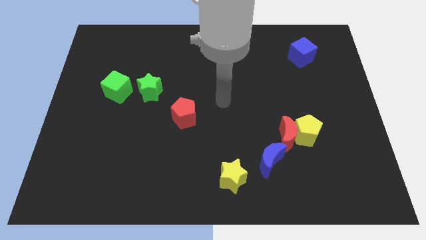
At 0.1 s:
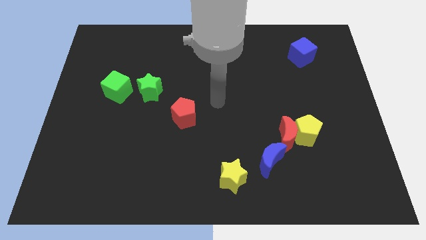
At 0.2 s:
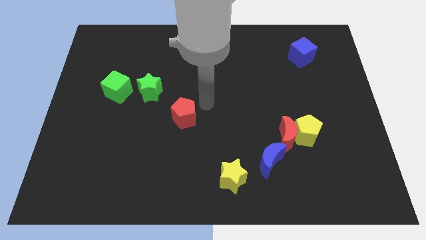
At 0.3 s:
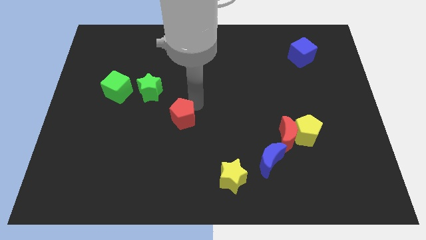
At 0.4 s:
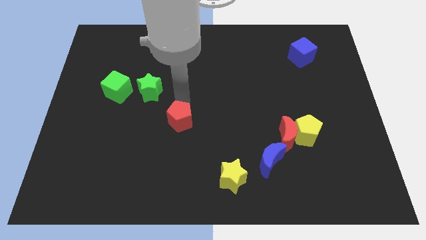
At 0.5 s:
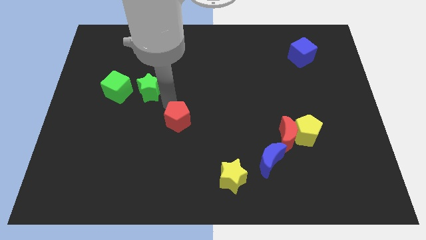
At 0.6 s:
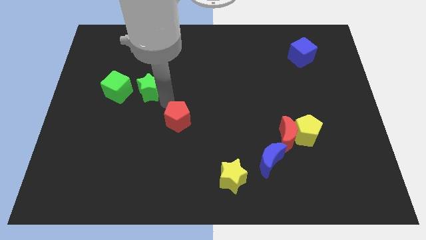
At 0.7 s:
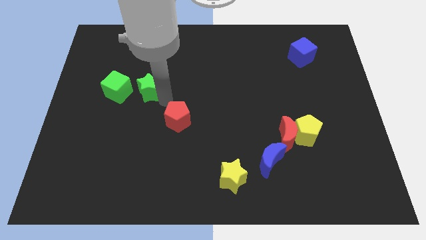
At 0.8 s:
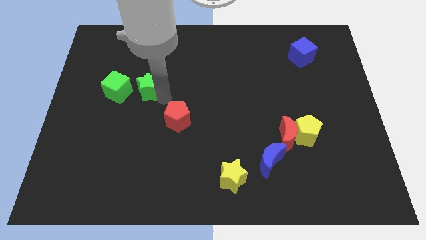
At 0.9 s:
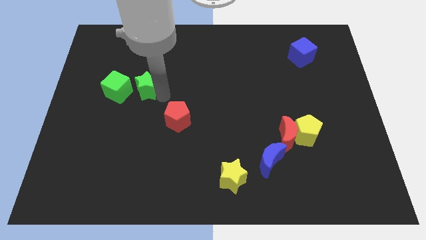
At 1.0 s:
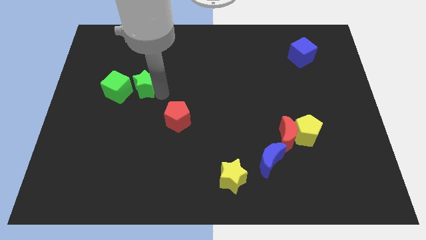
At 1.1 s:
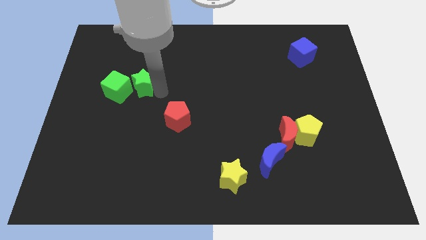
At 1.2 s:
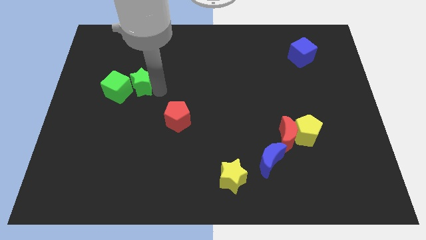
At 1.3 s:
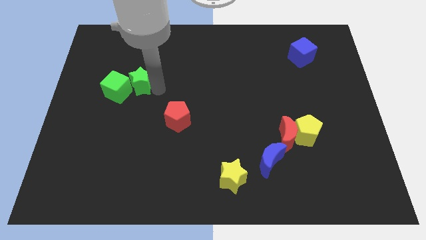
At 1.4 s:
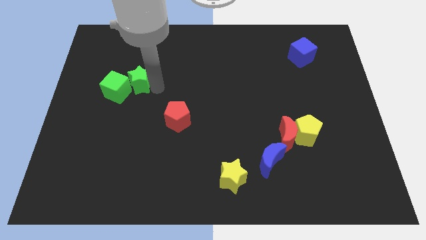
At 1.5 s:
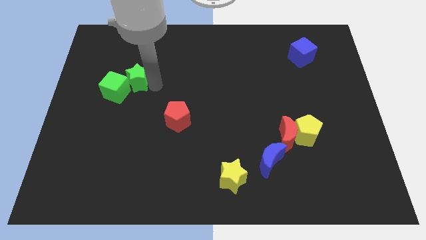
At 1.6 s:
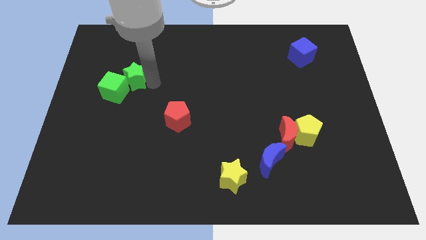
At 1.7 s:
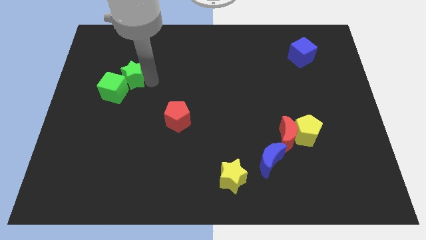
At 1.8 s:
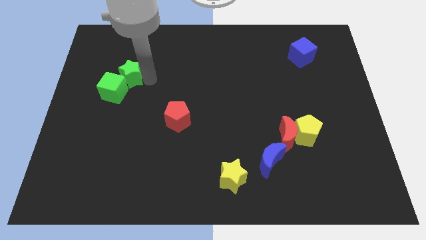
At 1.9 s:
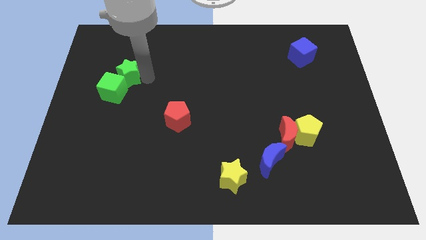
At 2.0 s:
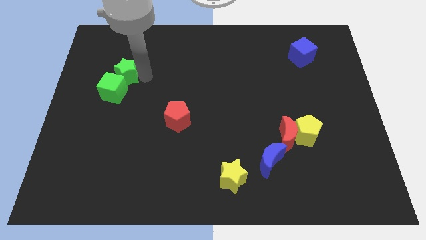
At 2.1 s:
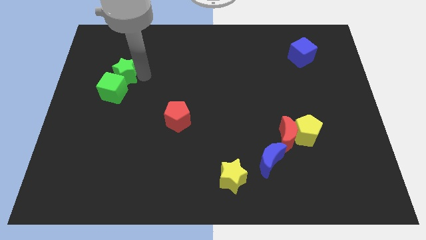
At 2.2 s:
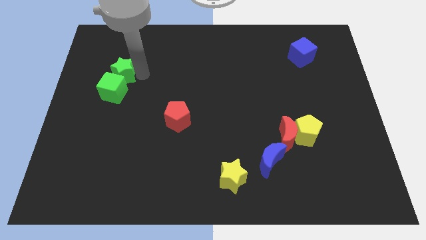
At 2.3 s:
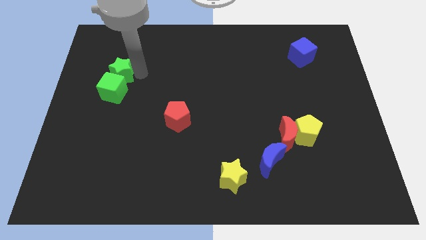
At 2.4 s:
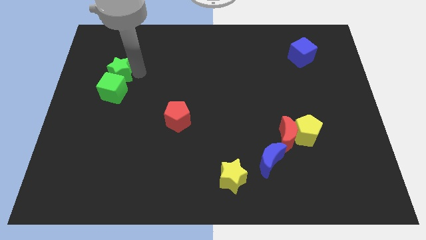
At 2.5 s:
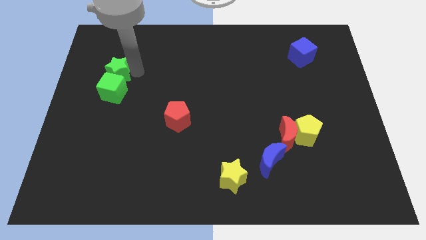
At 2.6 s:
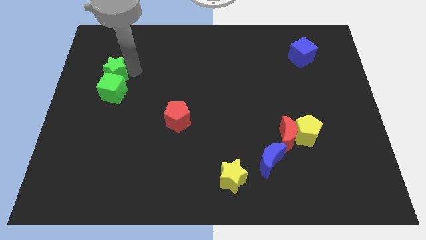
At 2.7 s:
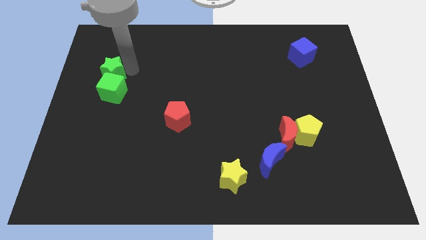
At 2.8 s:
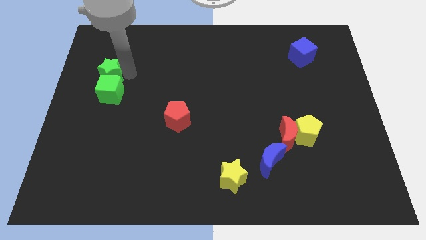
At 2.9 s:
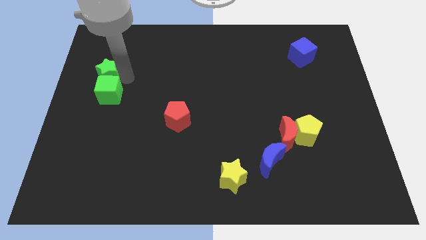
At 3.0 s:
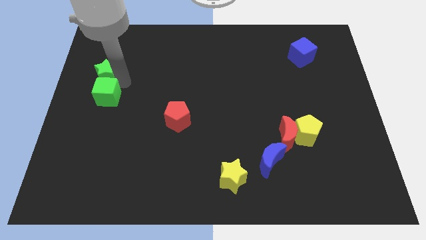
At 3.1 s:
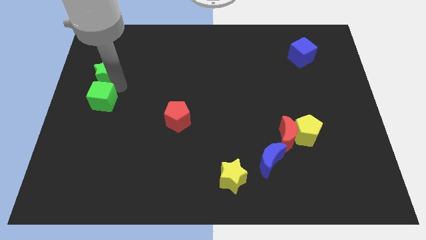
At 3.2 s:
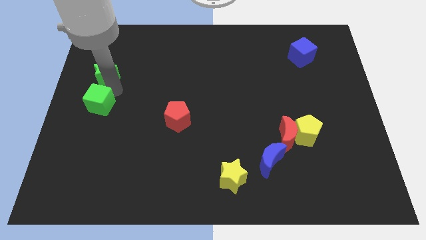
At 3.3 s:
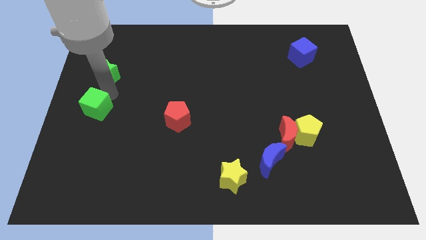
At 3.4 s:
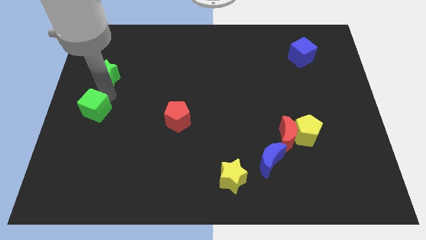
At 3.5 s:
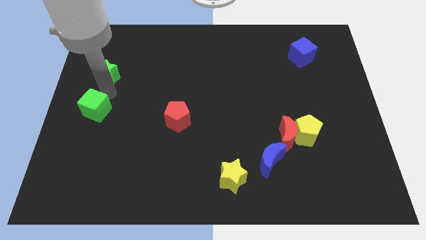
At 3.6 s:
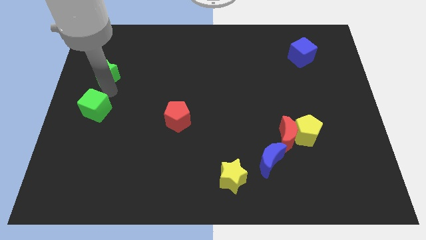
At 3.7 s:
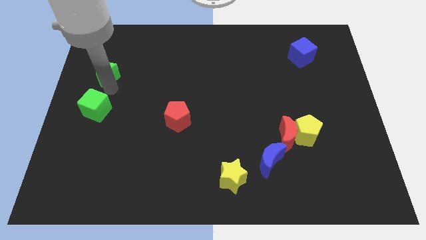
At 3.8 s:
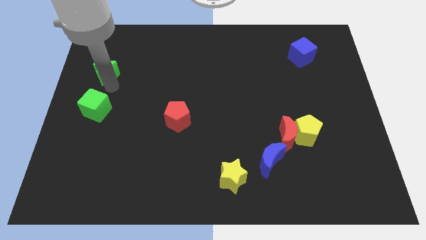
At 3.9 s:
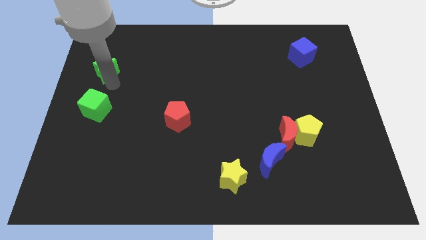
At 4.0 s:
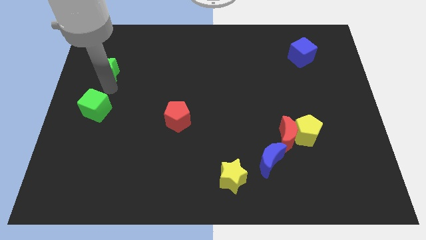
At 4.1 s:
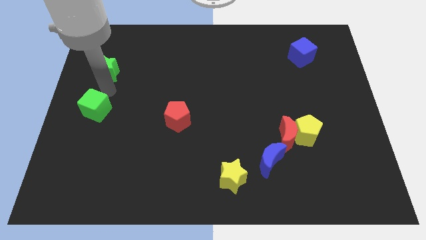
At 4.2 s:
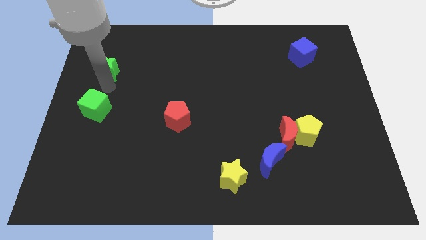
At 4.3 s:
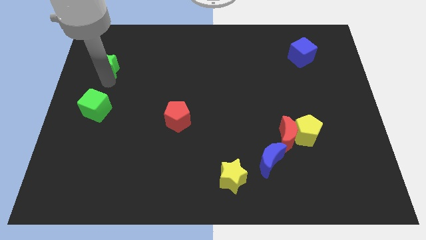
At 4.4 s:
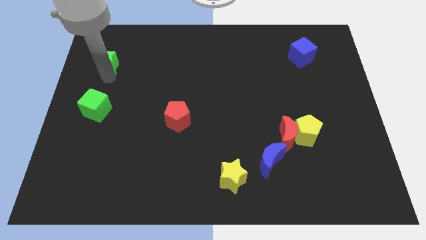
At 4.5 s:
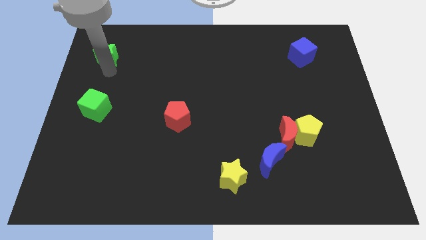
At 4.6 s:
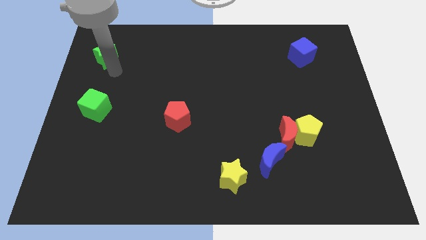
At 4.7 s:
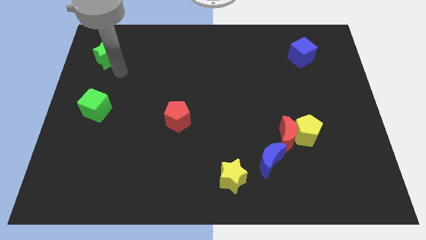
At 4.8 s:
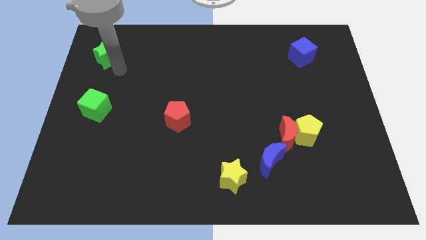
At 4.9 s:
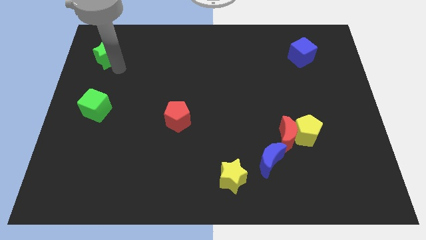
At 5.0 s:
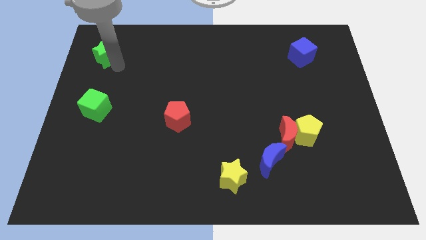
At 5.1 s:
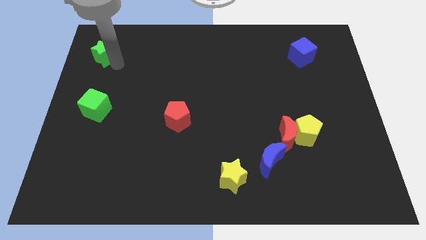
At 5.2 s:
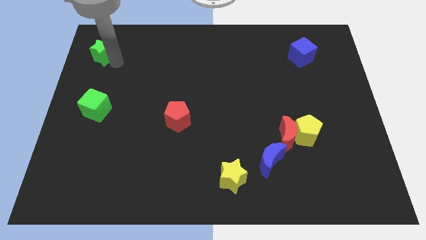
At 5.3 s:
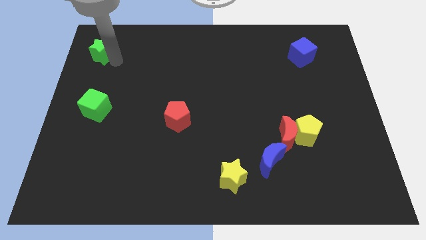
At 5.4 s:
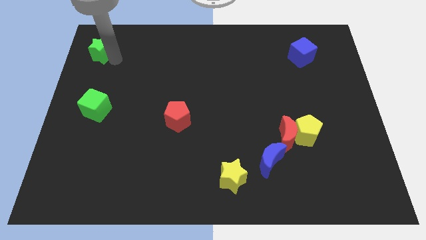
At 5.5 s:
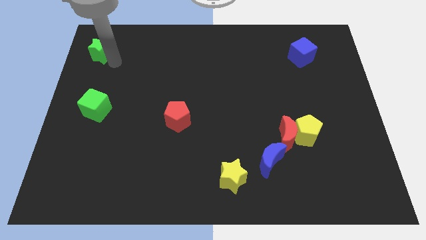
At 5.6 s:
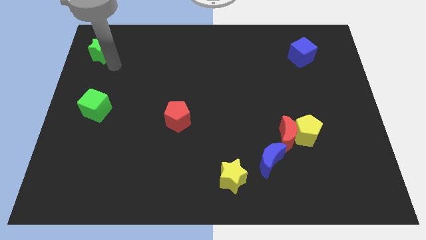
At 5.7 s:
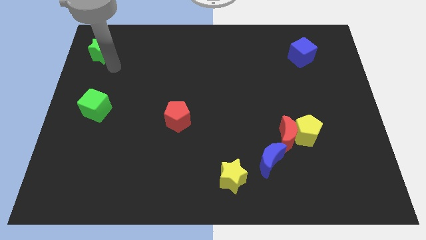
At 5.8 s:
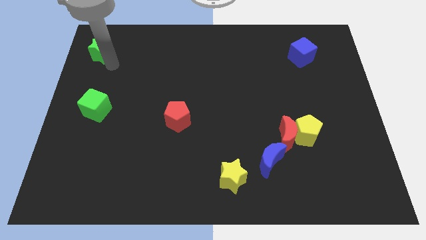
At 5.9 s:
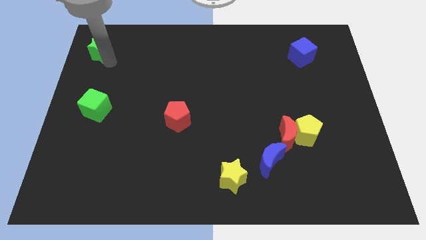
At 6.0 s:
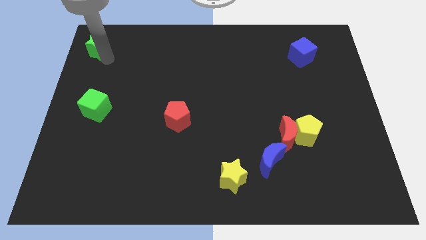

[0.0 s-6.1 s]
push the green star to the top left corner

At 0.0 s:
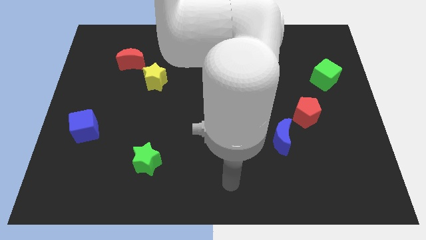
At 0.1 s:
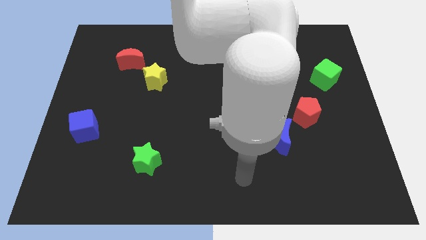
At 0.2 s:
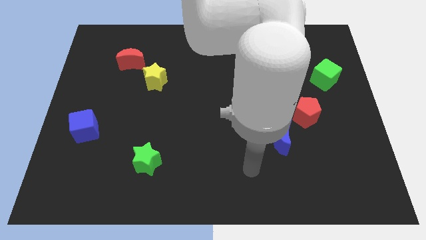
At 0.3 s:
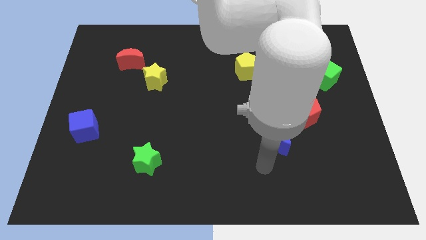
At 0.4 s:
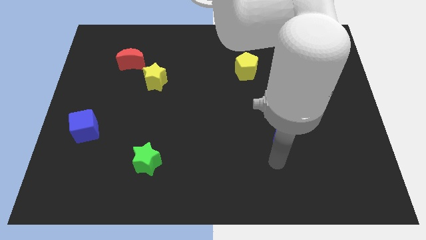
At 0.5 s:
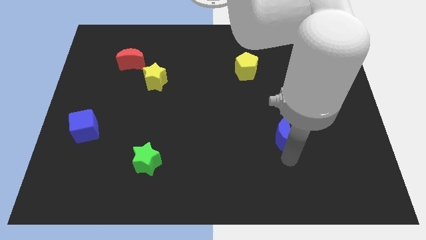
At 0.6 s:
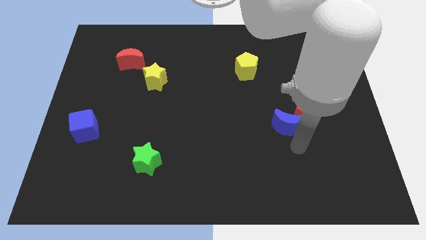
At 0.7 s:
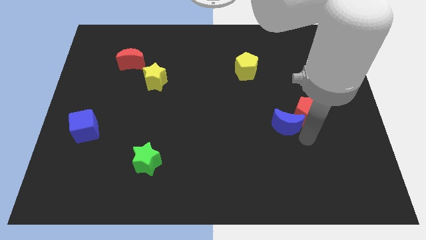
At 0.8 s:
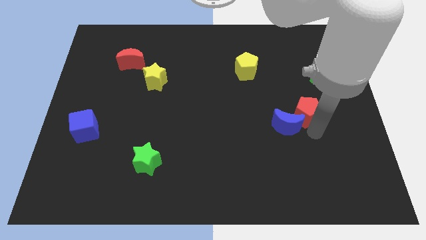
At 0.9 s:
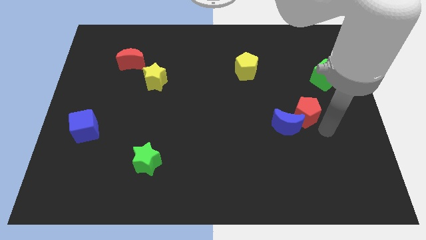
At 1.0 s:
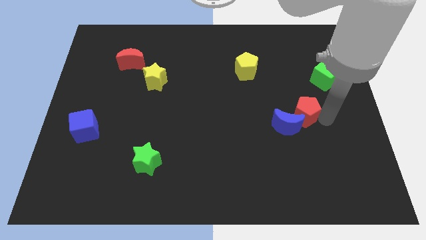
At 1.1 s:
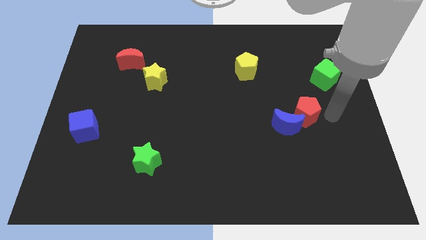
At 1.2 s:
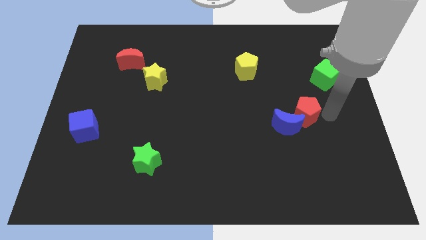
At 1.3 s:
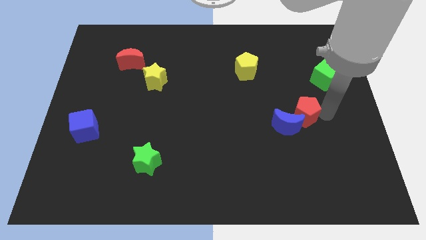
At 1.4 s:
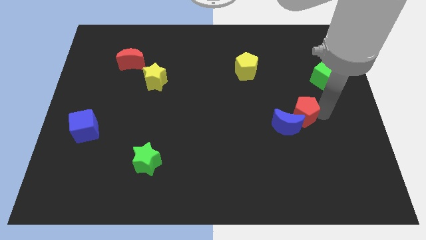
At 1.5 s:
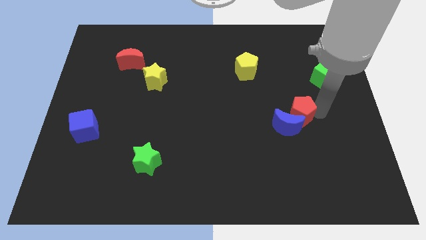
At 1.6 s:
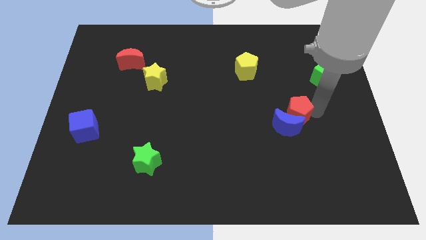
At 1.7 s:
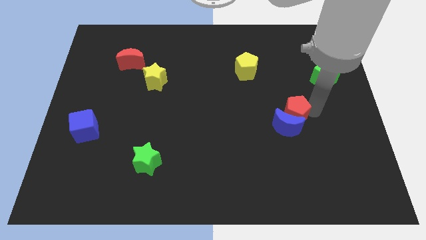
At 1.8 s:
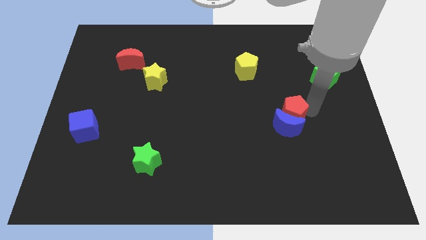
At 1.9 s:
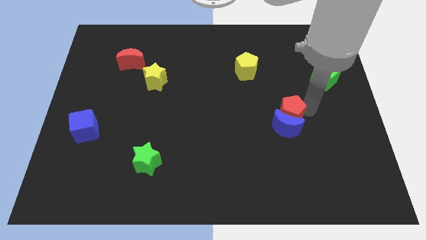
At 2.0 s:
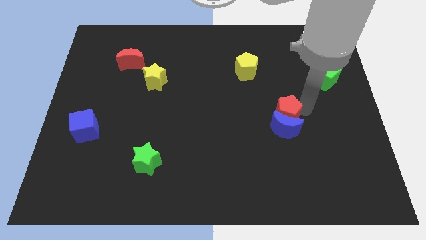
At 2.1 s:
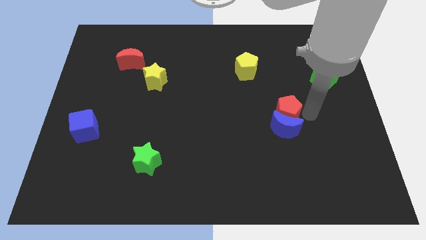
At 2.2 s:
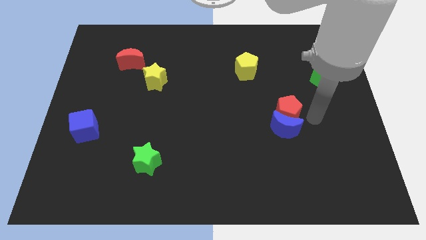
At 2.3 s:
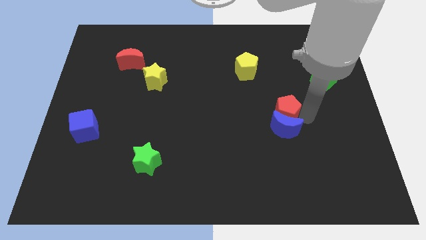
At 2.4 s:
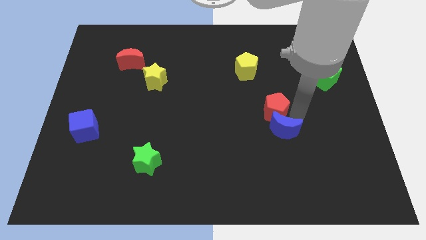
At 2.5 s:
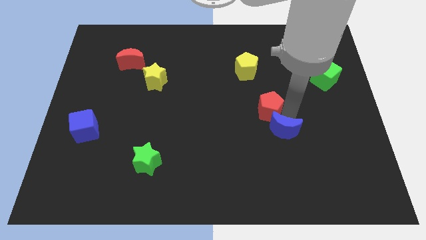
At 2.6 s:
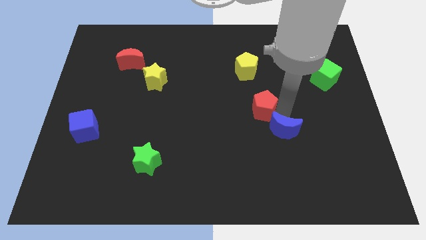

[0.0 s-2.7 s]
push the red pentagon to the center
